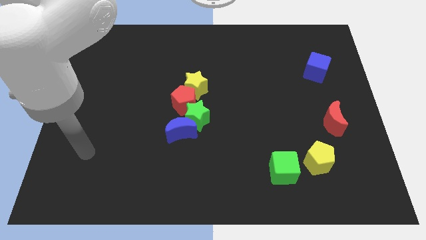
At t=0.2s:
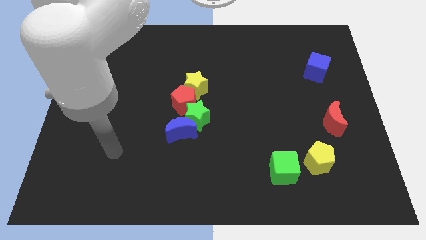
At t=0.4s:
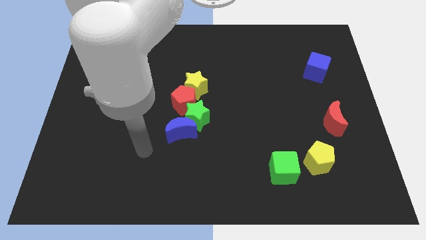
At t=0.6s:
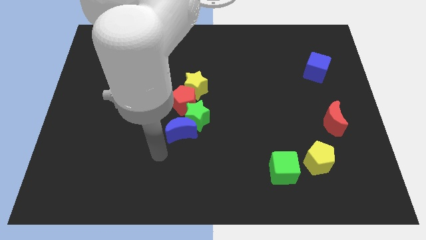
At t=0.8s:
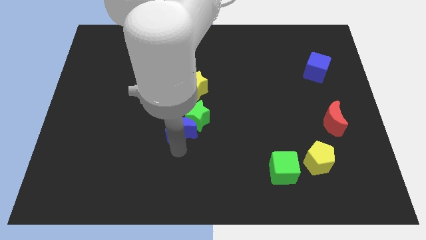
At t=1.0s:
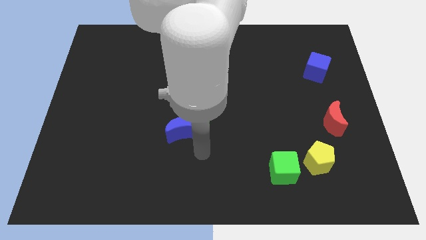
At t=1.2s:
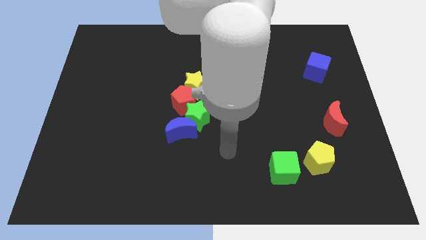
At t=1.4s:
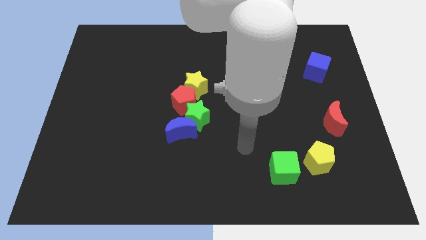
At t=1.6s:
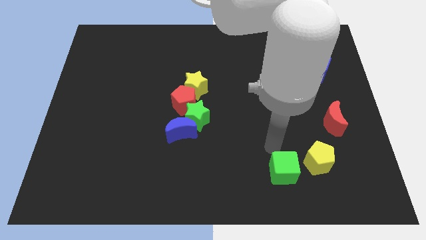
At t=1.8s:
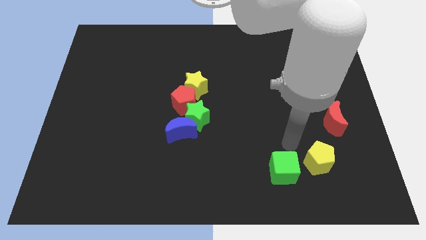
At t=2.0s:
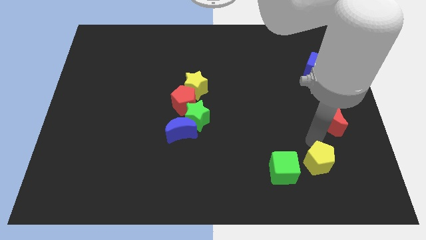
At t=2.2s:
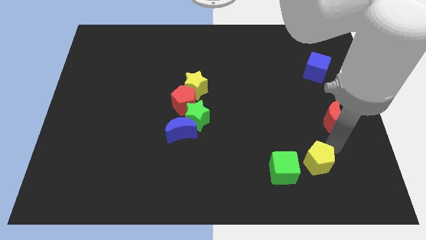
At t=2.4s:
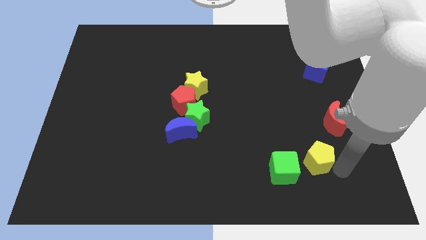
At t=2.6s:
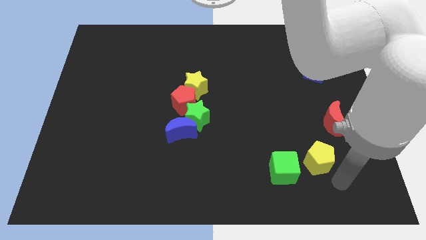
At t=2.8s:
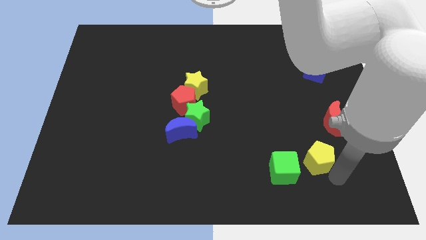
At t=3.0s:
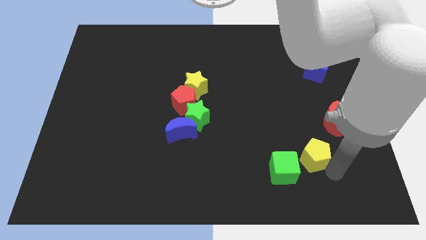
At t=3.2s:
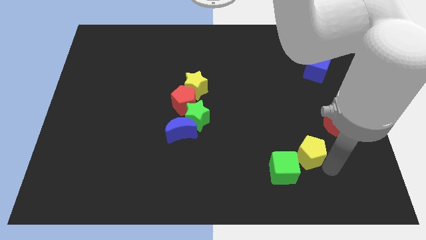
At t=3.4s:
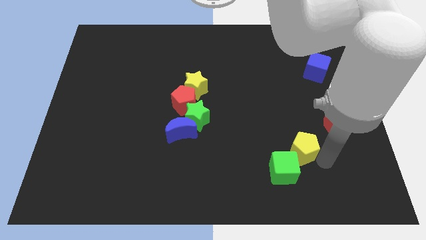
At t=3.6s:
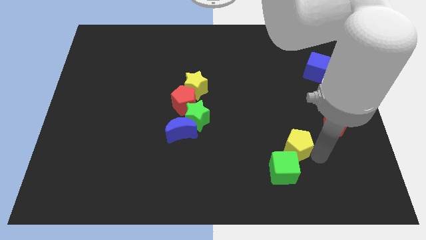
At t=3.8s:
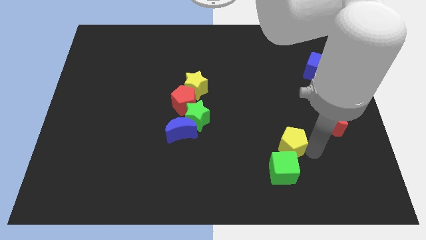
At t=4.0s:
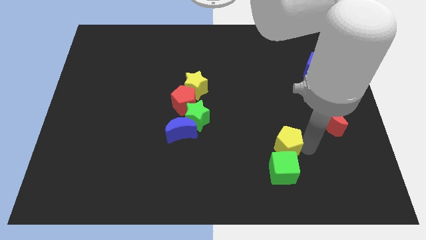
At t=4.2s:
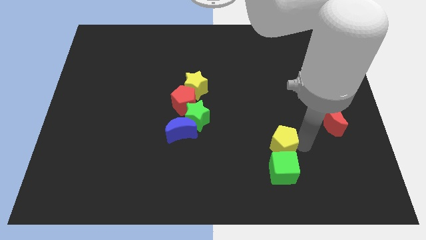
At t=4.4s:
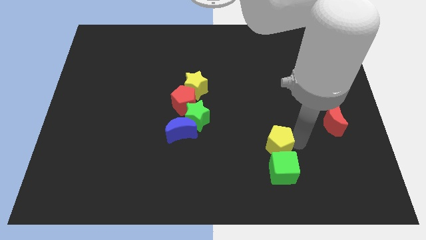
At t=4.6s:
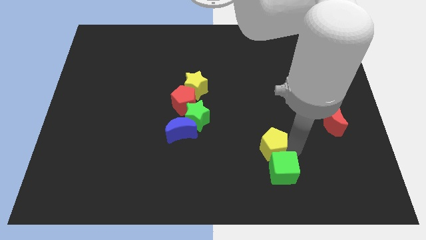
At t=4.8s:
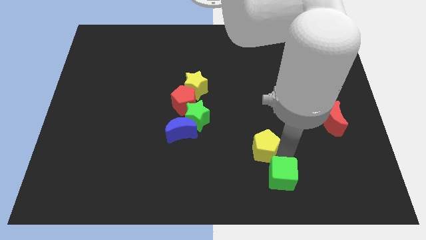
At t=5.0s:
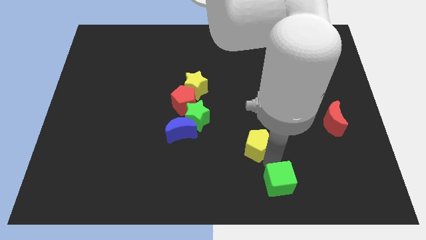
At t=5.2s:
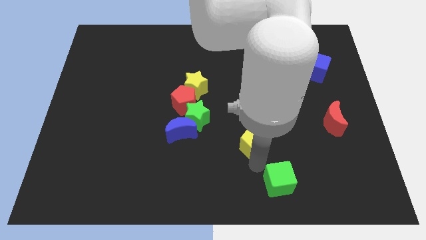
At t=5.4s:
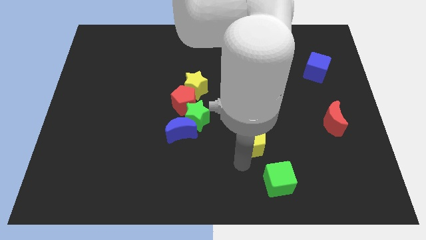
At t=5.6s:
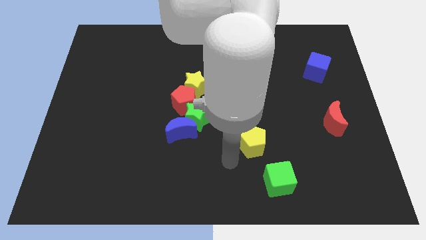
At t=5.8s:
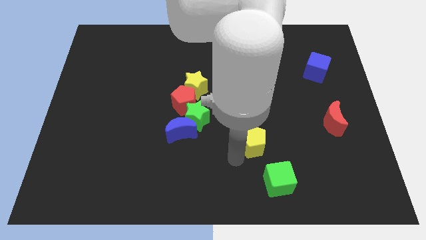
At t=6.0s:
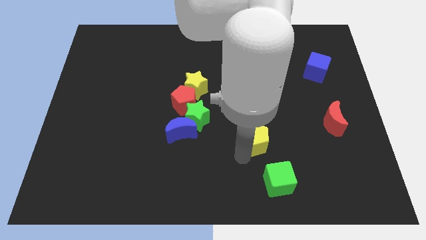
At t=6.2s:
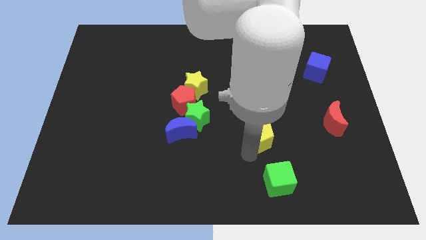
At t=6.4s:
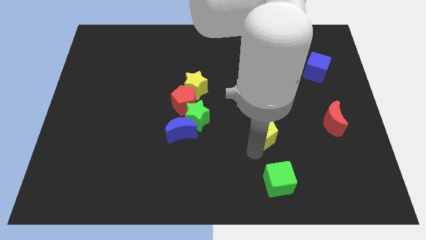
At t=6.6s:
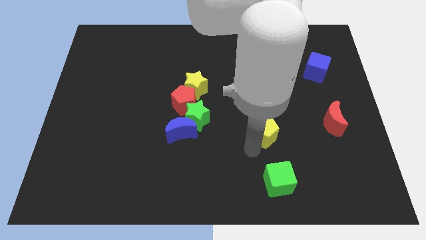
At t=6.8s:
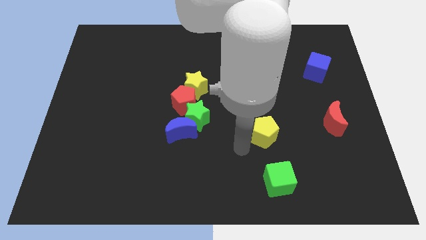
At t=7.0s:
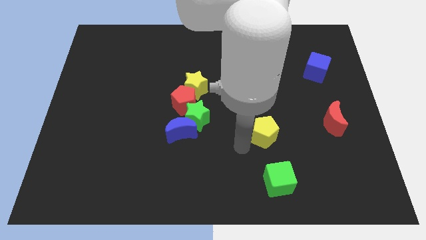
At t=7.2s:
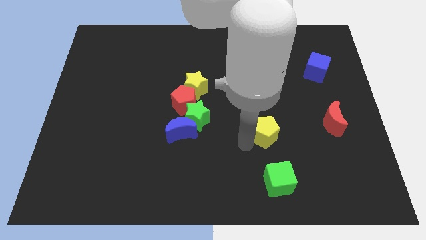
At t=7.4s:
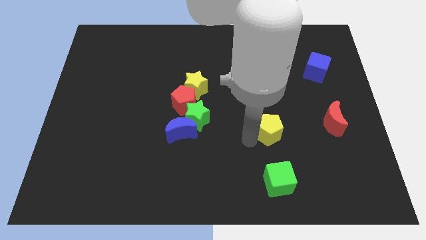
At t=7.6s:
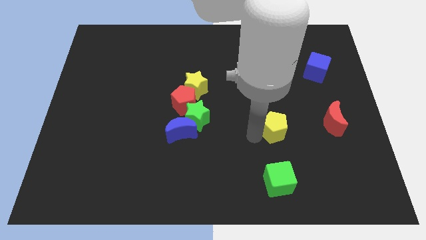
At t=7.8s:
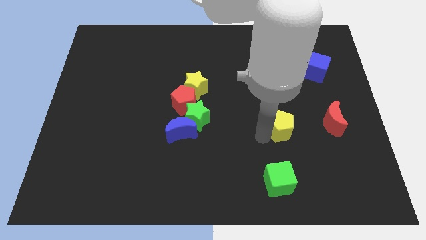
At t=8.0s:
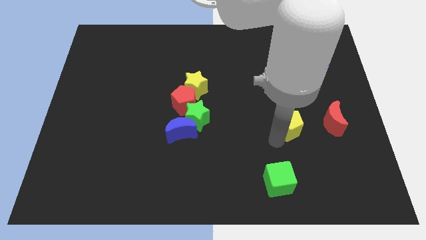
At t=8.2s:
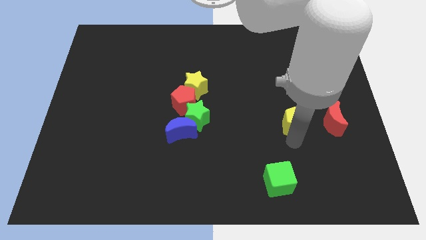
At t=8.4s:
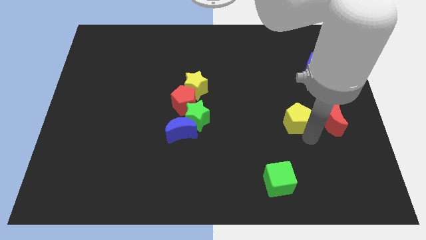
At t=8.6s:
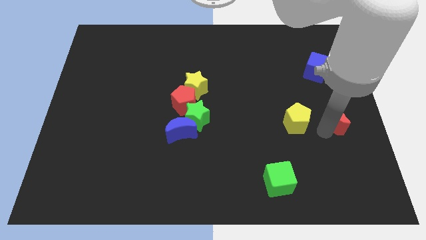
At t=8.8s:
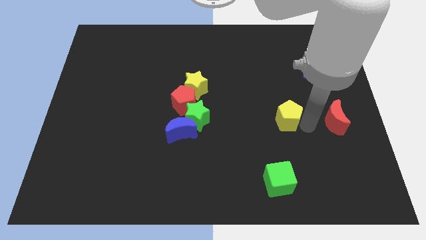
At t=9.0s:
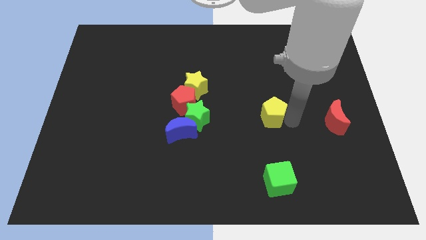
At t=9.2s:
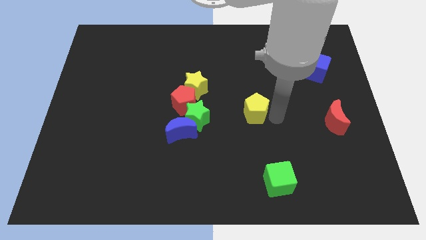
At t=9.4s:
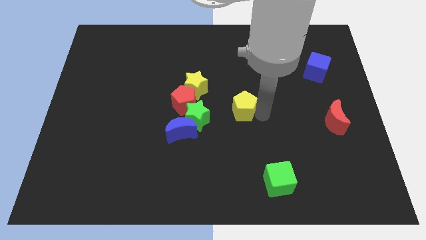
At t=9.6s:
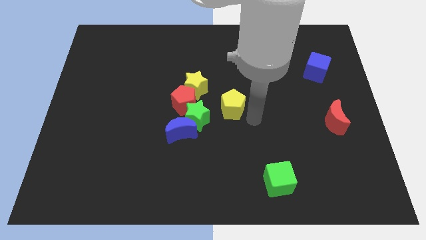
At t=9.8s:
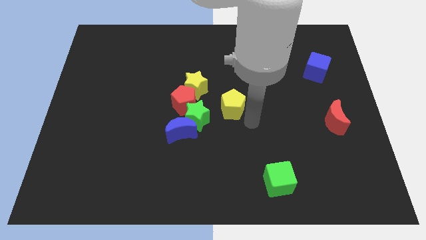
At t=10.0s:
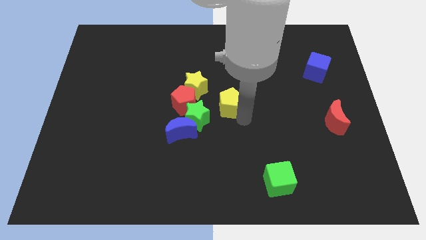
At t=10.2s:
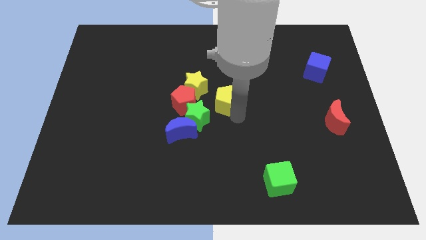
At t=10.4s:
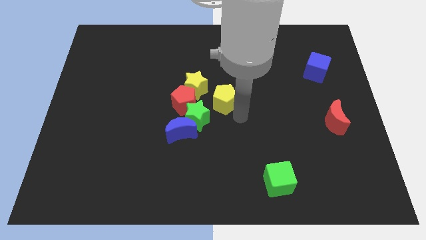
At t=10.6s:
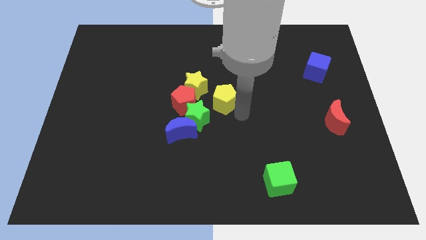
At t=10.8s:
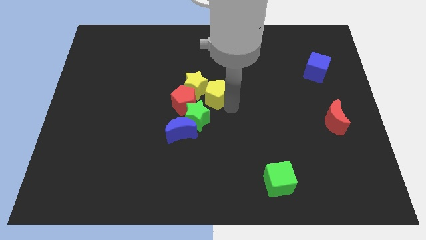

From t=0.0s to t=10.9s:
slide the yellow pentagon close to the yellow star

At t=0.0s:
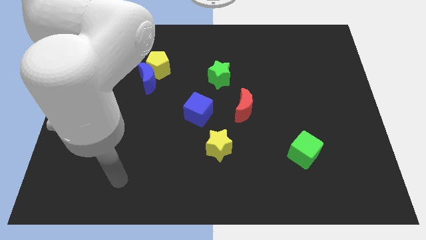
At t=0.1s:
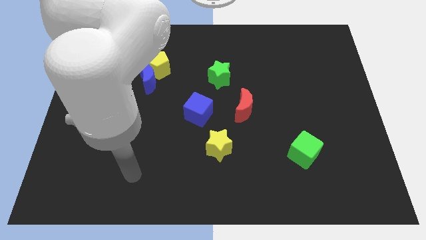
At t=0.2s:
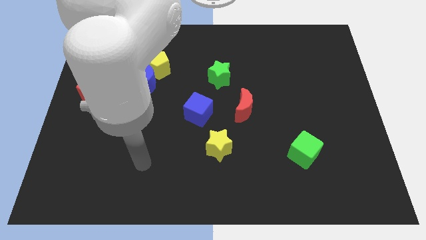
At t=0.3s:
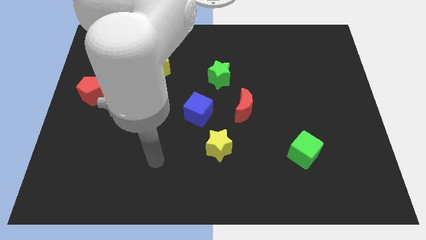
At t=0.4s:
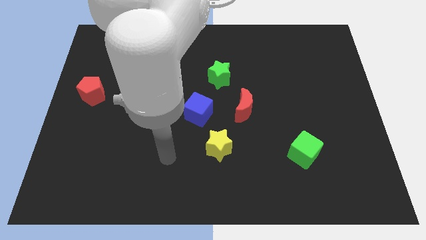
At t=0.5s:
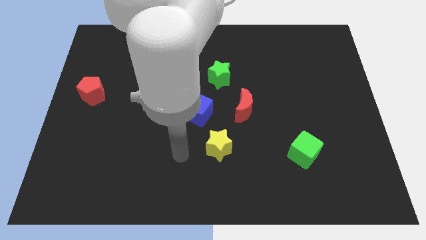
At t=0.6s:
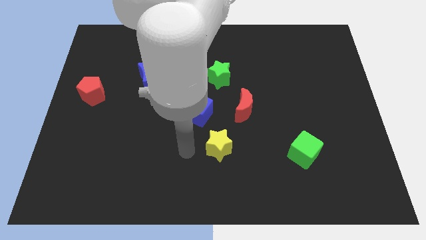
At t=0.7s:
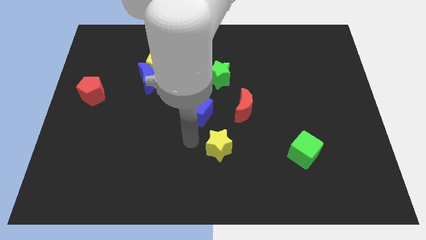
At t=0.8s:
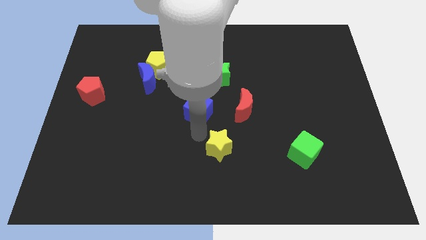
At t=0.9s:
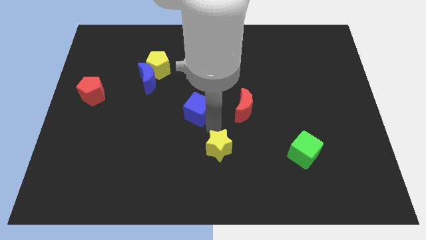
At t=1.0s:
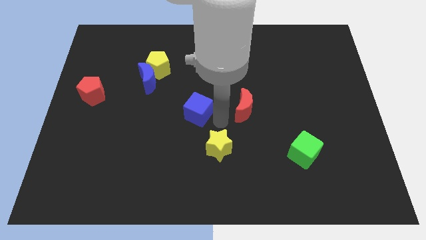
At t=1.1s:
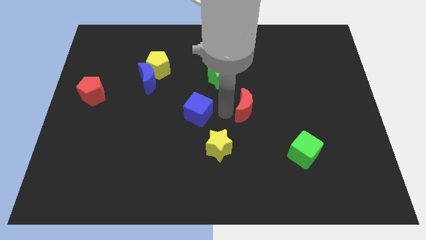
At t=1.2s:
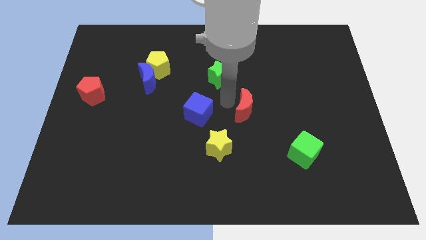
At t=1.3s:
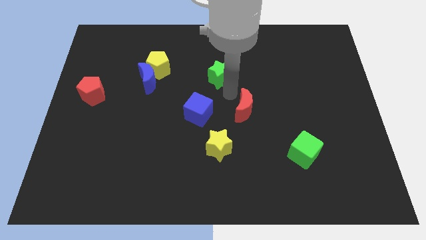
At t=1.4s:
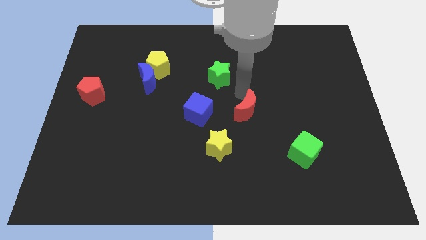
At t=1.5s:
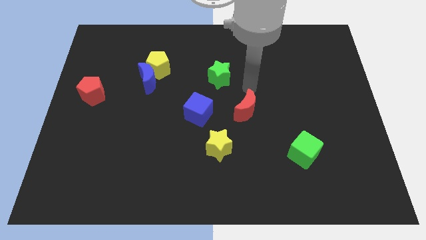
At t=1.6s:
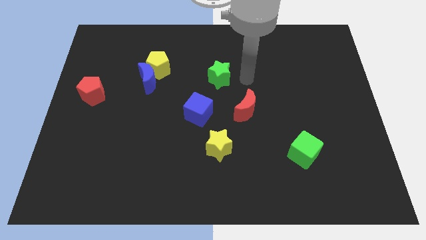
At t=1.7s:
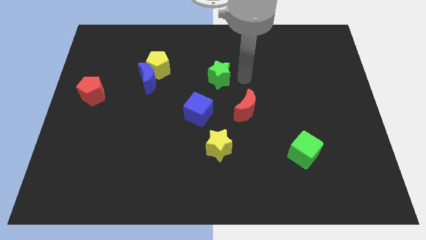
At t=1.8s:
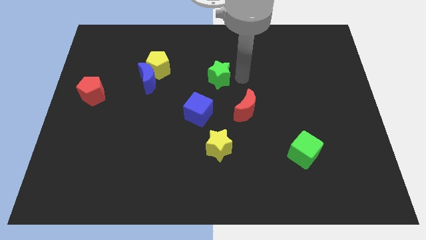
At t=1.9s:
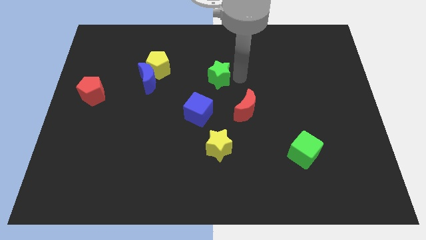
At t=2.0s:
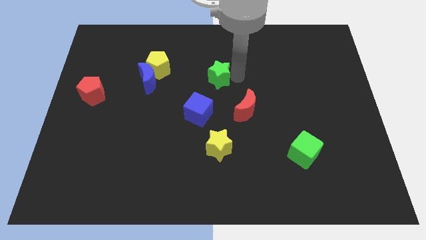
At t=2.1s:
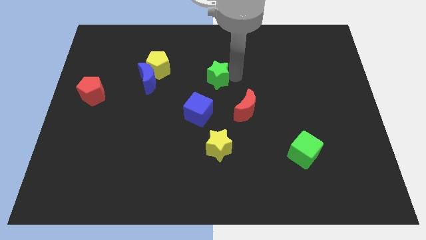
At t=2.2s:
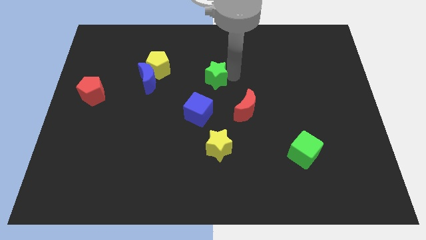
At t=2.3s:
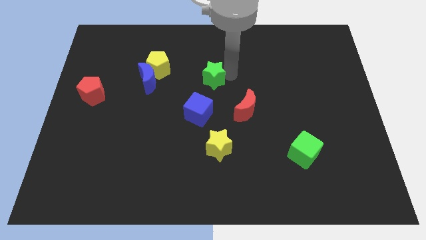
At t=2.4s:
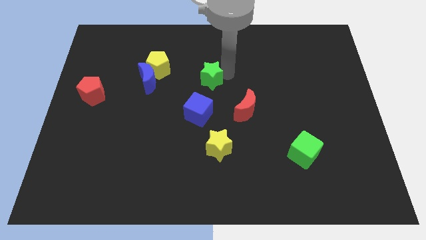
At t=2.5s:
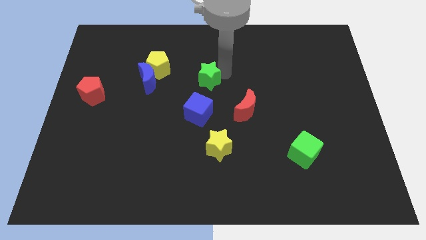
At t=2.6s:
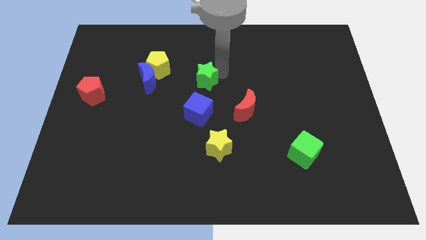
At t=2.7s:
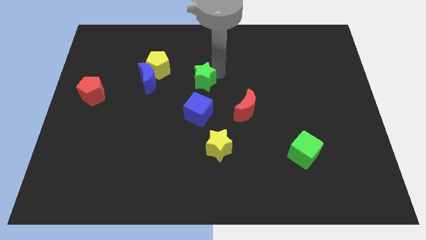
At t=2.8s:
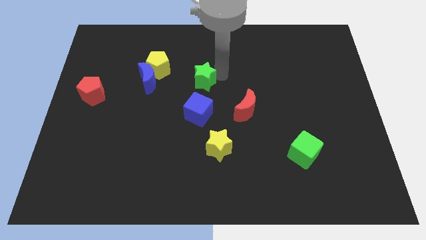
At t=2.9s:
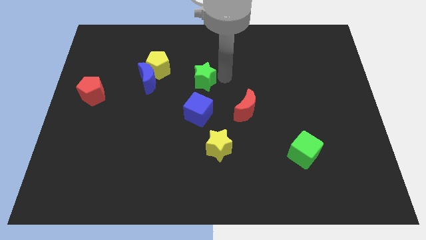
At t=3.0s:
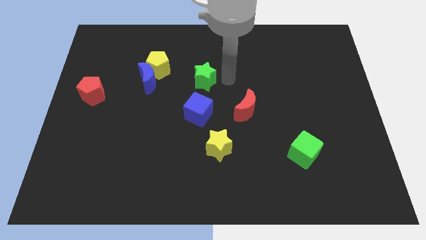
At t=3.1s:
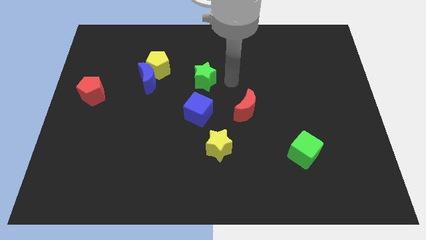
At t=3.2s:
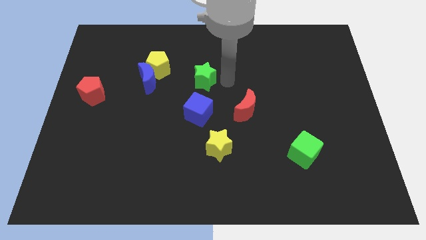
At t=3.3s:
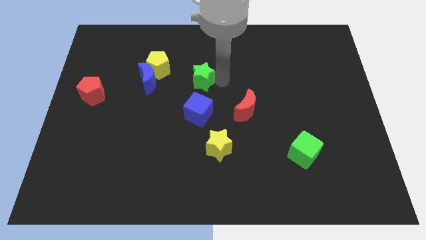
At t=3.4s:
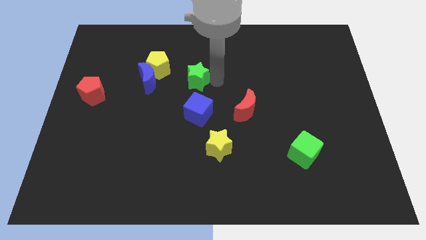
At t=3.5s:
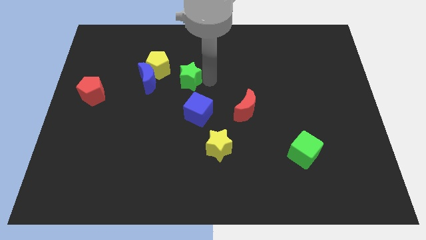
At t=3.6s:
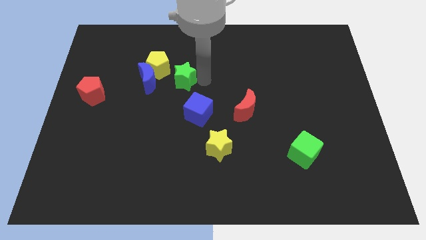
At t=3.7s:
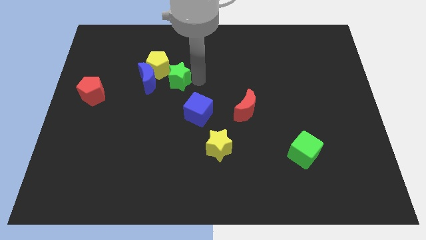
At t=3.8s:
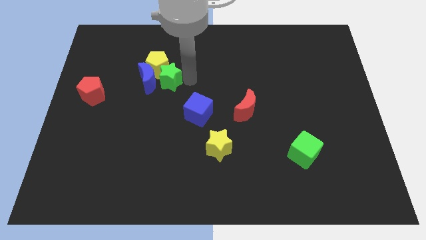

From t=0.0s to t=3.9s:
slide the green star next to the blue moon
